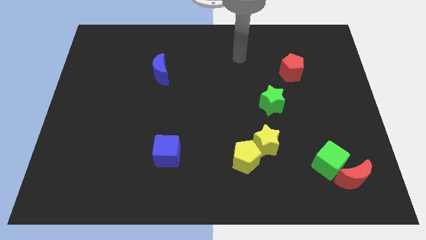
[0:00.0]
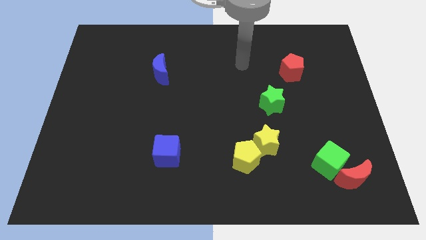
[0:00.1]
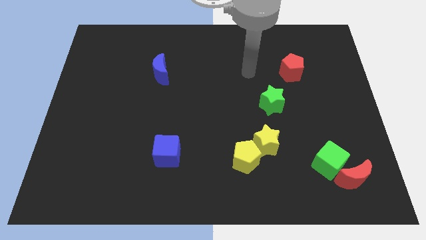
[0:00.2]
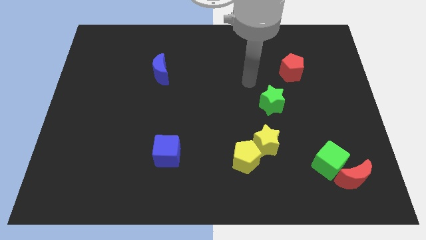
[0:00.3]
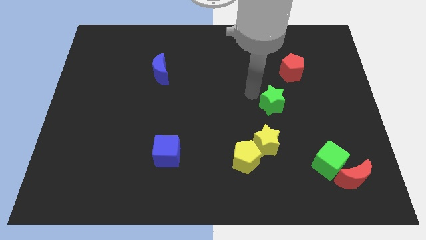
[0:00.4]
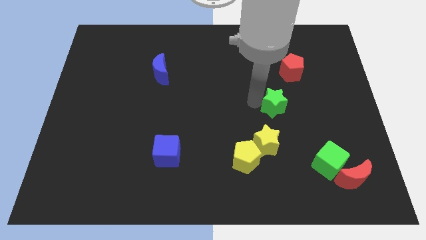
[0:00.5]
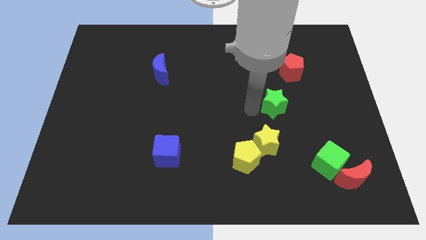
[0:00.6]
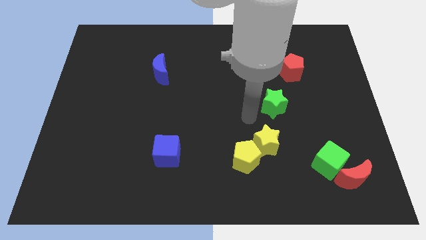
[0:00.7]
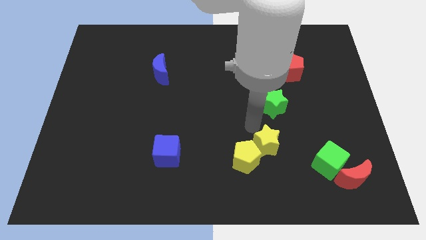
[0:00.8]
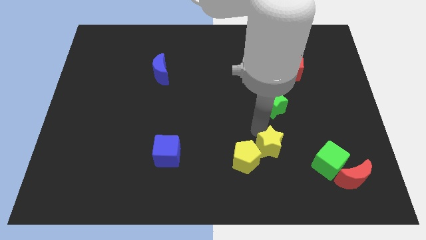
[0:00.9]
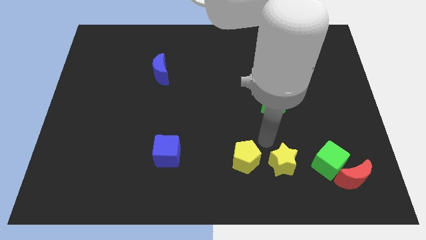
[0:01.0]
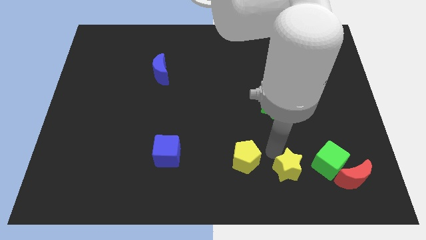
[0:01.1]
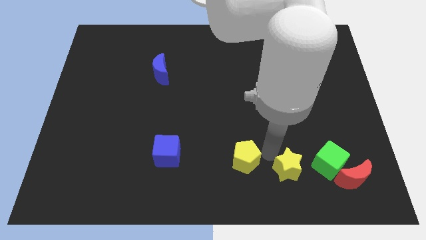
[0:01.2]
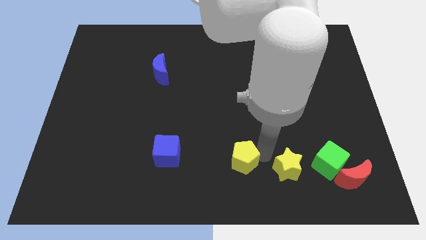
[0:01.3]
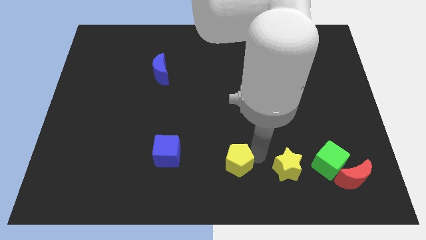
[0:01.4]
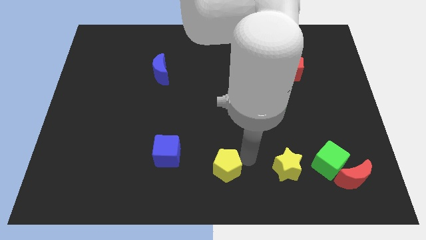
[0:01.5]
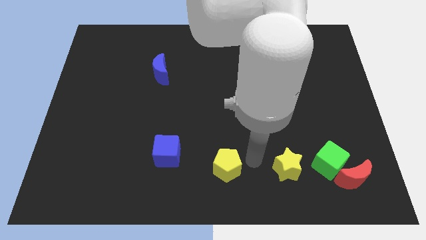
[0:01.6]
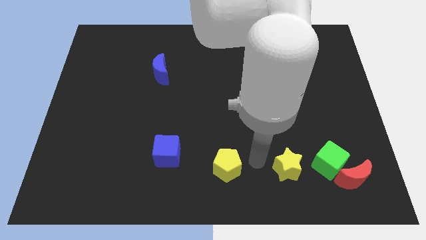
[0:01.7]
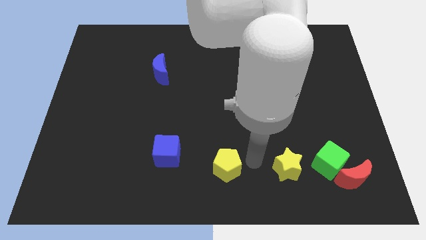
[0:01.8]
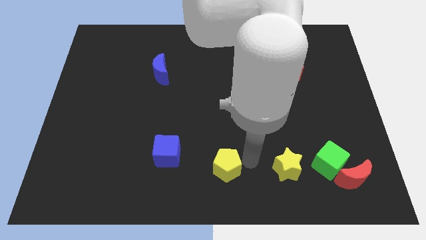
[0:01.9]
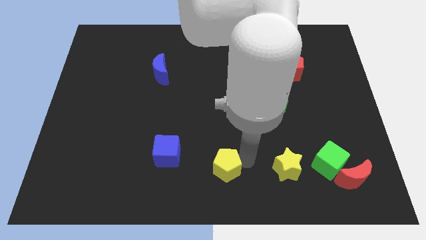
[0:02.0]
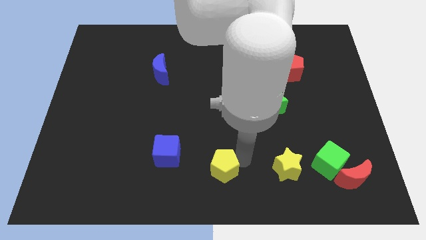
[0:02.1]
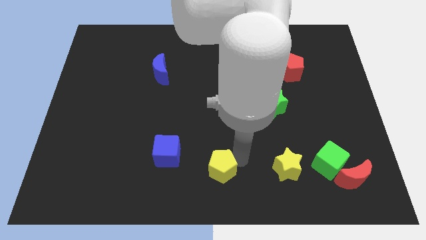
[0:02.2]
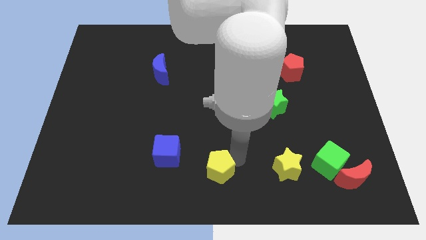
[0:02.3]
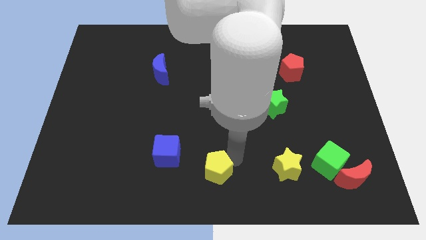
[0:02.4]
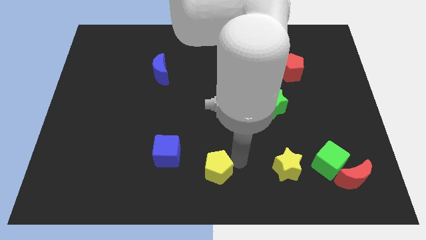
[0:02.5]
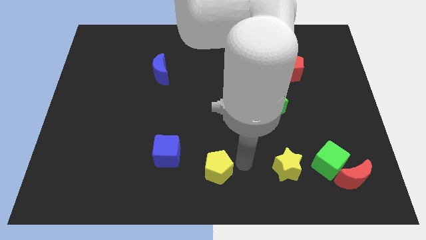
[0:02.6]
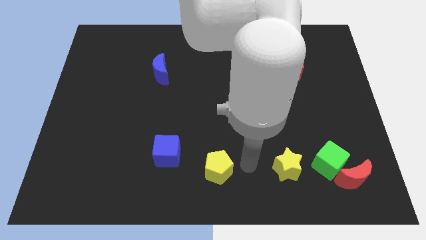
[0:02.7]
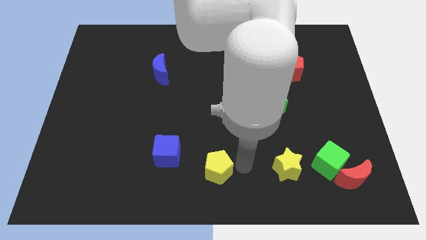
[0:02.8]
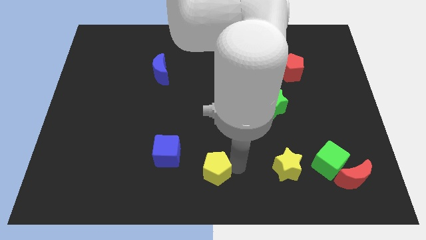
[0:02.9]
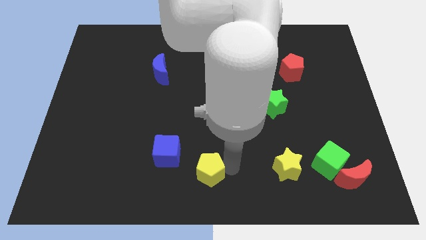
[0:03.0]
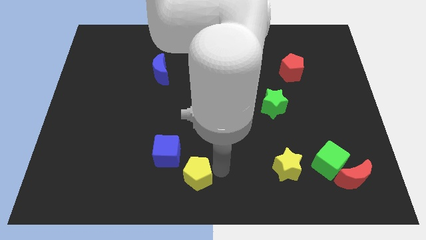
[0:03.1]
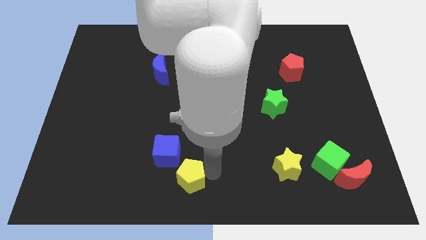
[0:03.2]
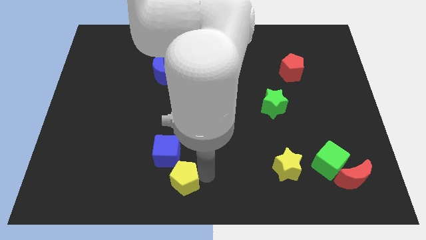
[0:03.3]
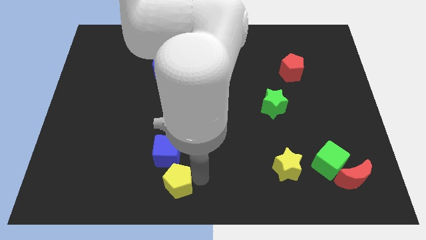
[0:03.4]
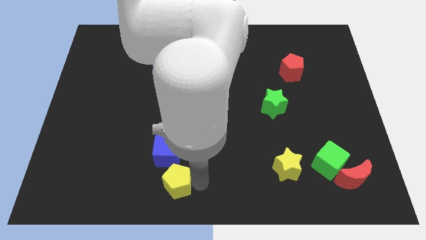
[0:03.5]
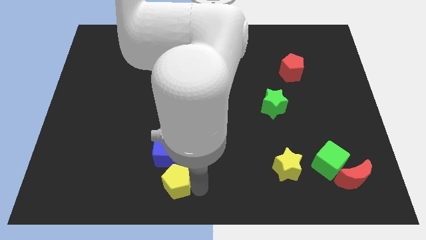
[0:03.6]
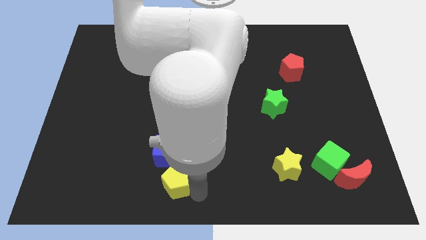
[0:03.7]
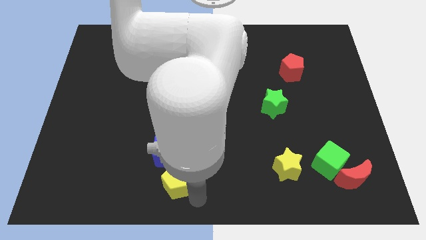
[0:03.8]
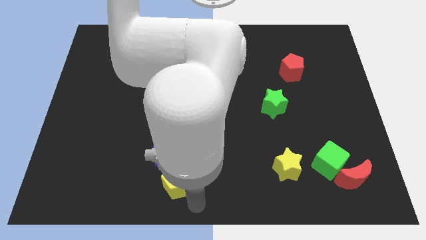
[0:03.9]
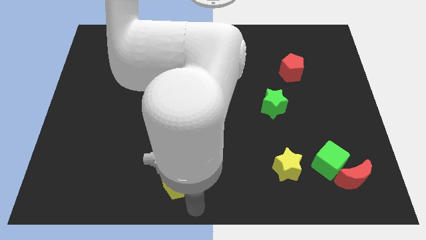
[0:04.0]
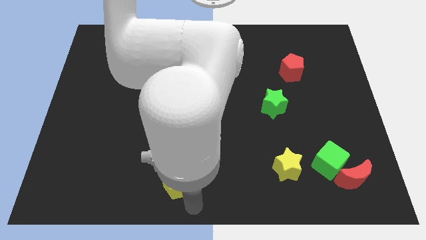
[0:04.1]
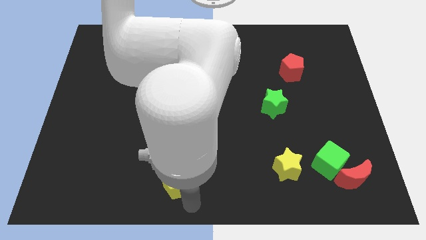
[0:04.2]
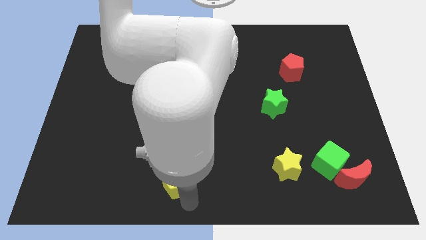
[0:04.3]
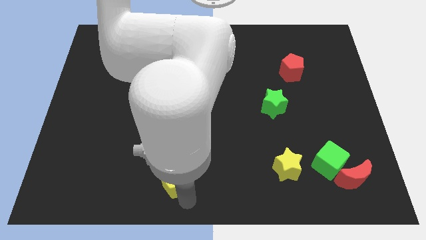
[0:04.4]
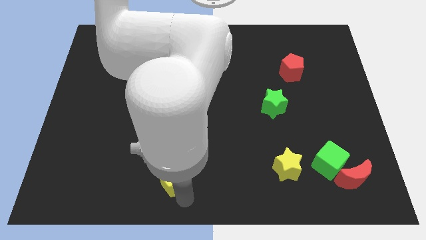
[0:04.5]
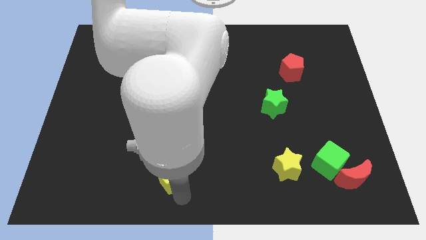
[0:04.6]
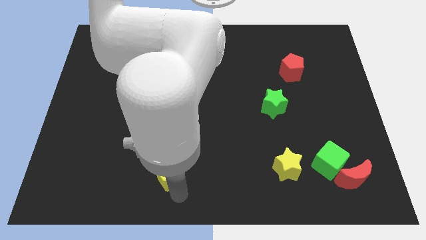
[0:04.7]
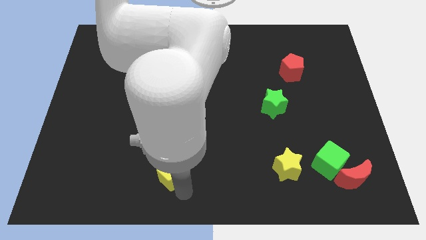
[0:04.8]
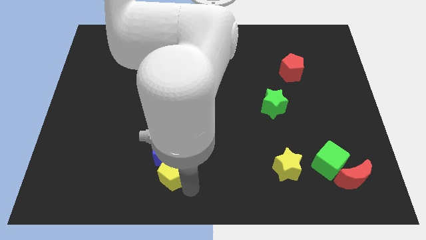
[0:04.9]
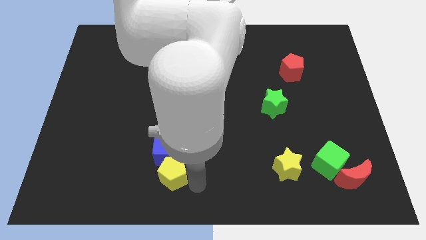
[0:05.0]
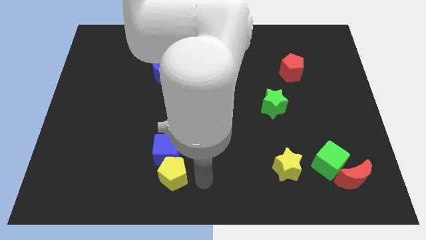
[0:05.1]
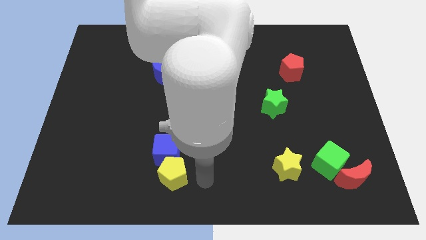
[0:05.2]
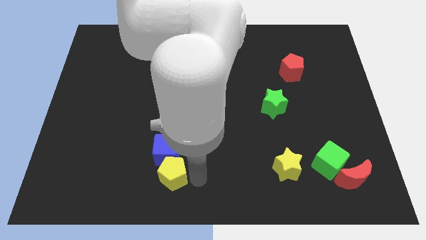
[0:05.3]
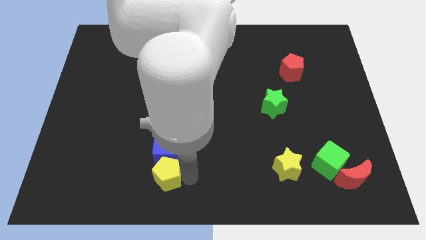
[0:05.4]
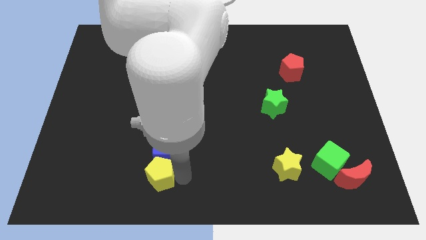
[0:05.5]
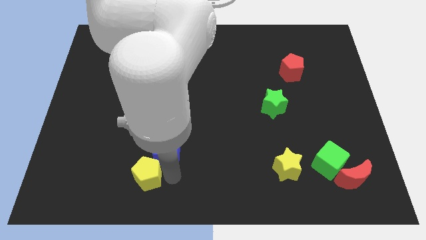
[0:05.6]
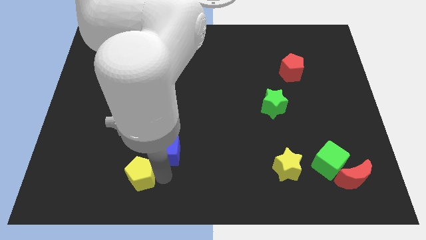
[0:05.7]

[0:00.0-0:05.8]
slide the yellow pentagon left

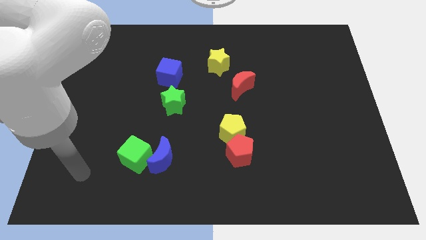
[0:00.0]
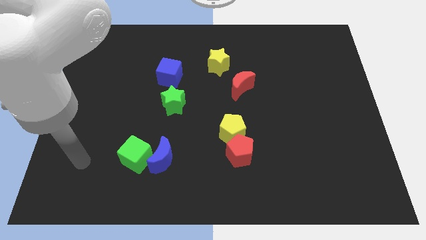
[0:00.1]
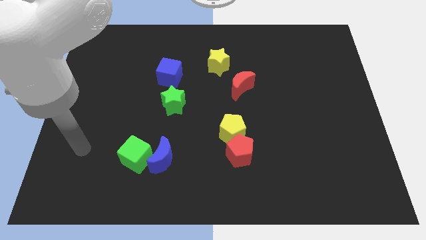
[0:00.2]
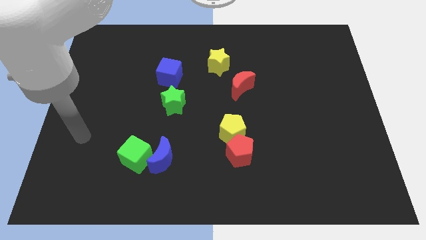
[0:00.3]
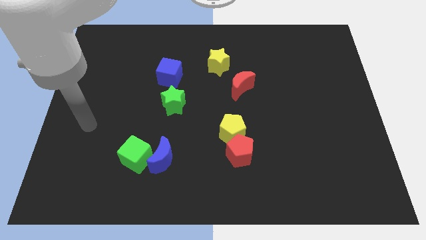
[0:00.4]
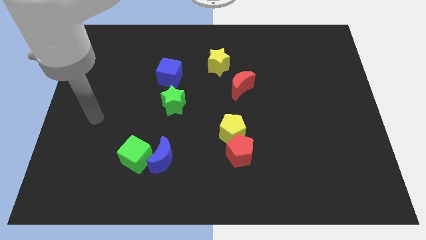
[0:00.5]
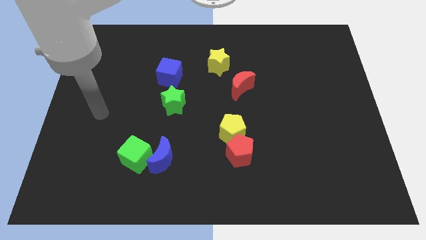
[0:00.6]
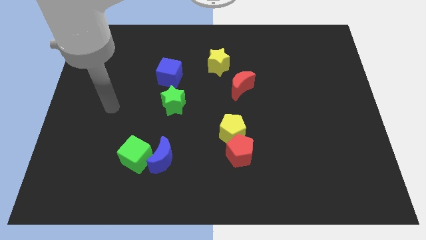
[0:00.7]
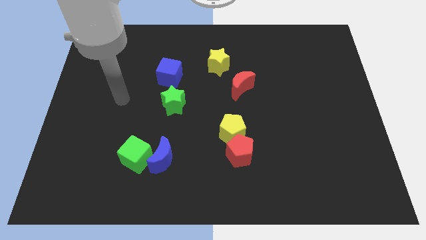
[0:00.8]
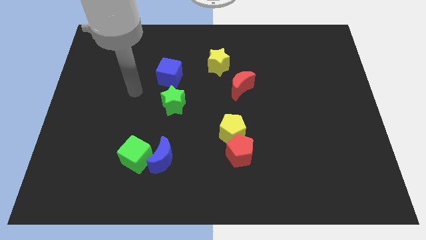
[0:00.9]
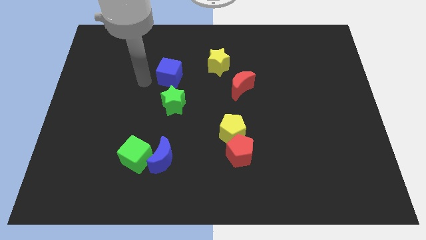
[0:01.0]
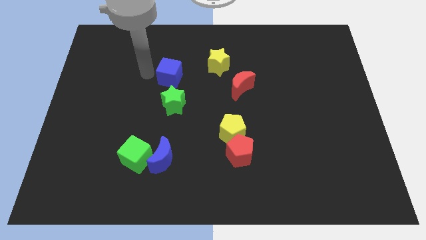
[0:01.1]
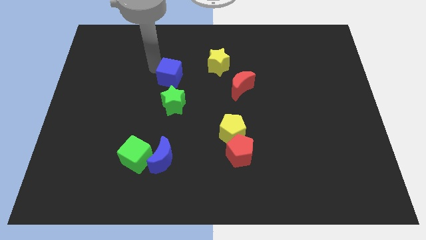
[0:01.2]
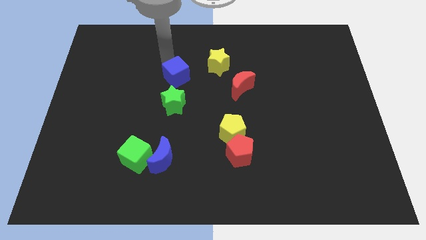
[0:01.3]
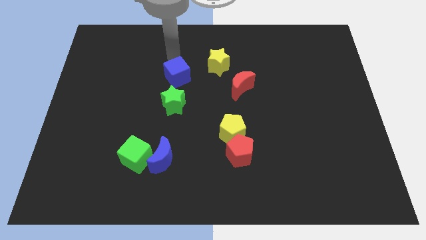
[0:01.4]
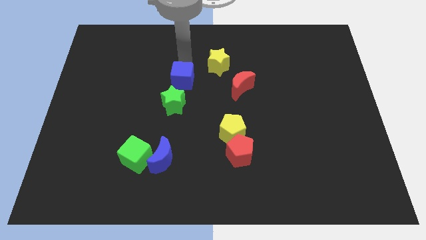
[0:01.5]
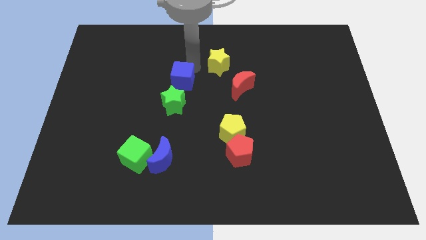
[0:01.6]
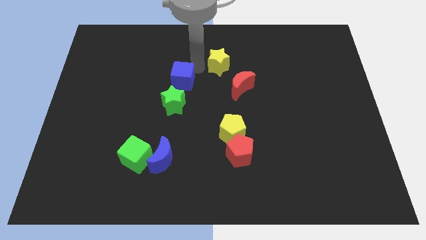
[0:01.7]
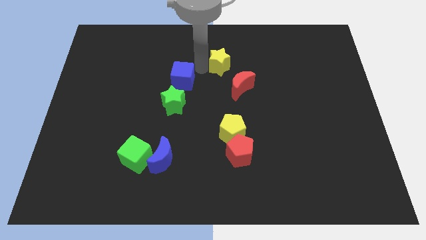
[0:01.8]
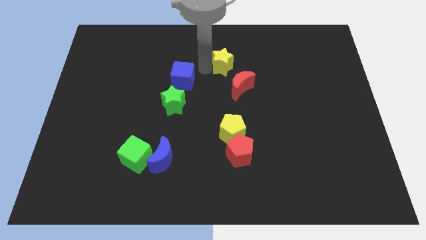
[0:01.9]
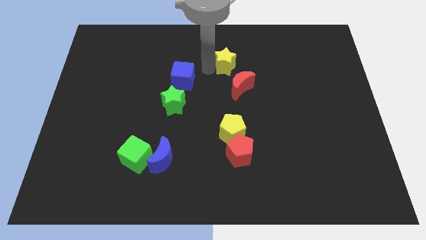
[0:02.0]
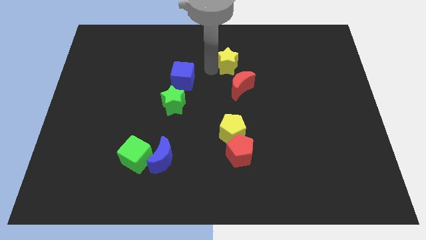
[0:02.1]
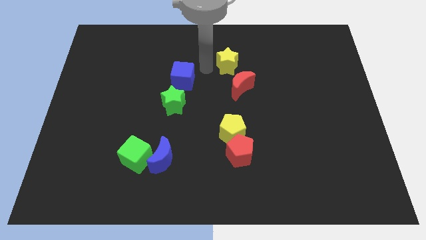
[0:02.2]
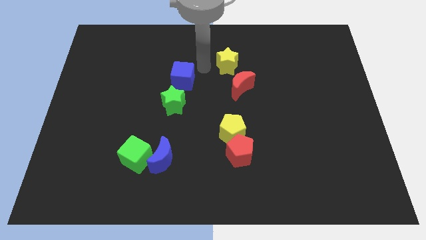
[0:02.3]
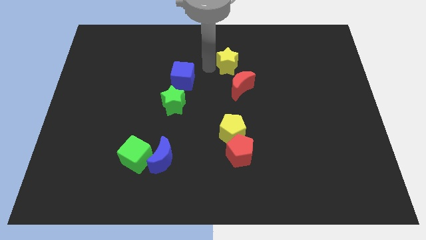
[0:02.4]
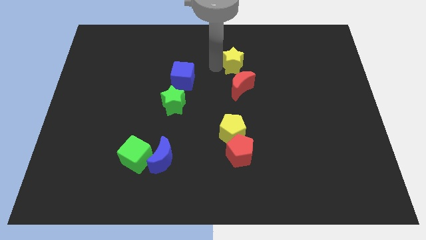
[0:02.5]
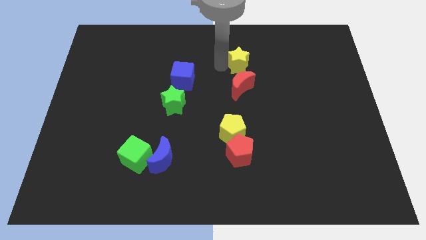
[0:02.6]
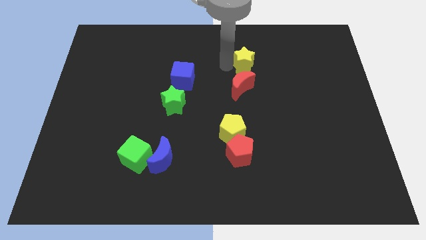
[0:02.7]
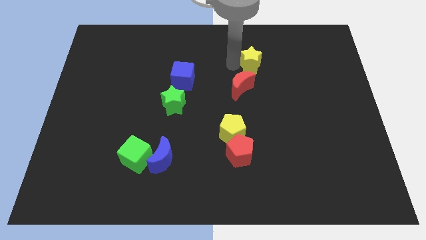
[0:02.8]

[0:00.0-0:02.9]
slide the yellow star a little right
